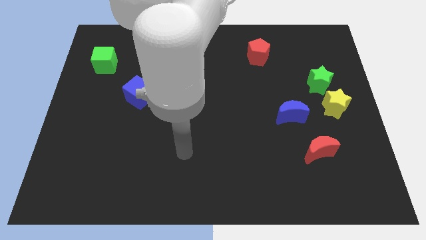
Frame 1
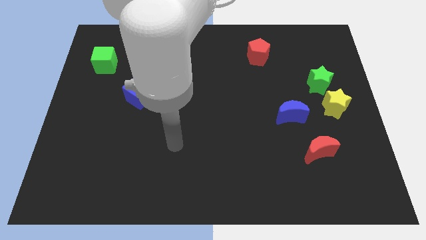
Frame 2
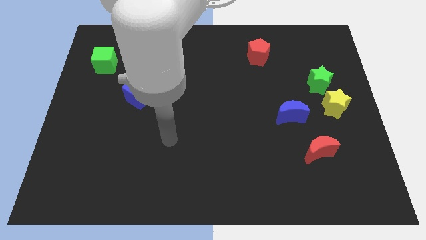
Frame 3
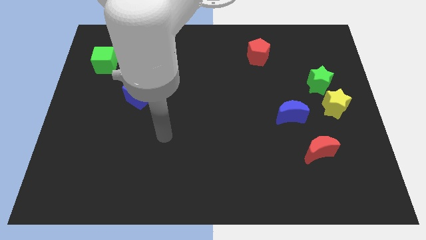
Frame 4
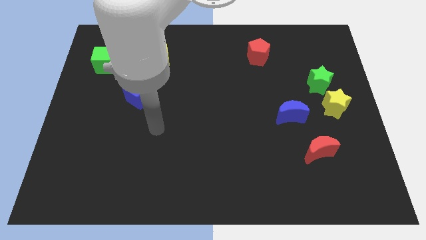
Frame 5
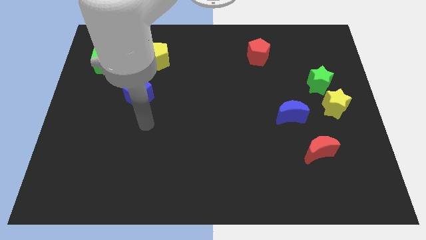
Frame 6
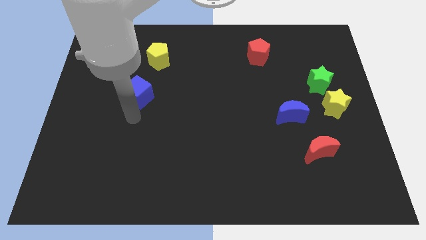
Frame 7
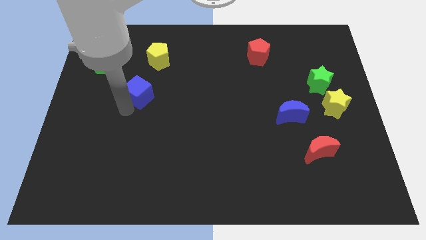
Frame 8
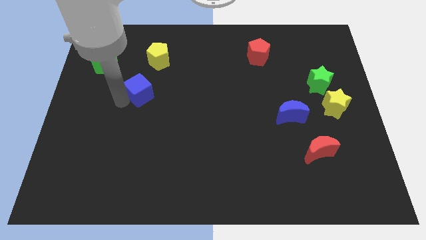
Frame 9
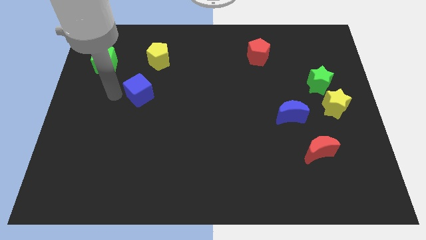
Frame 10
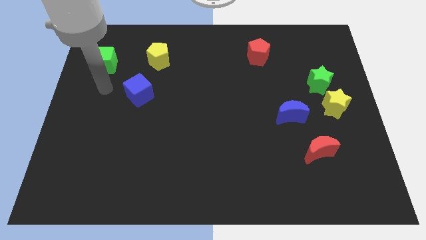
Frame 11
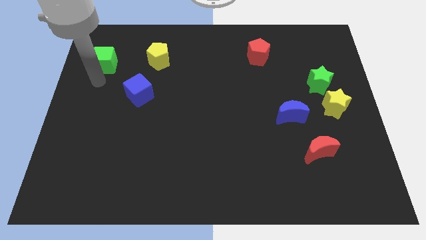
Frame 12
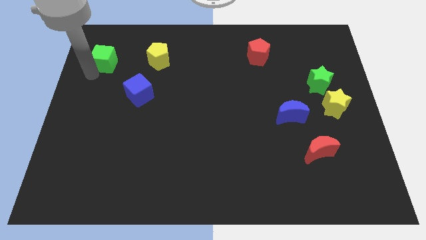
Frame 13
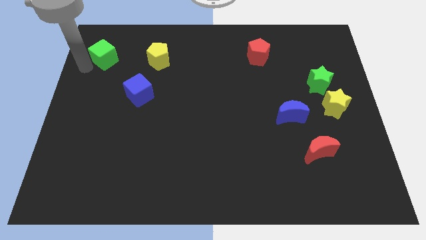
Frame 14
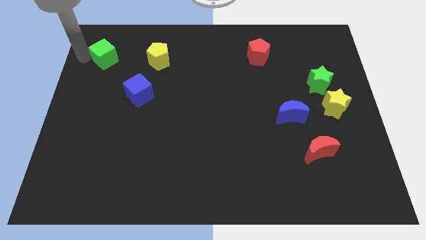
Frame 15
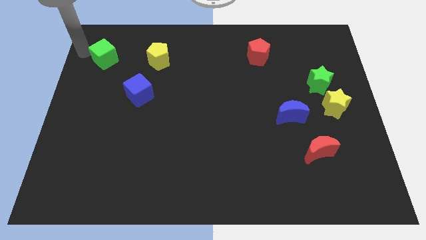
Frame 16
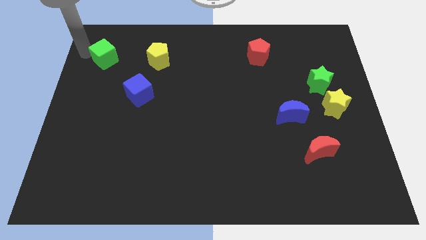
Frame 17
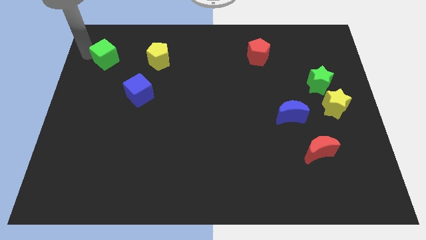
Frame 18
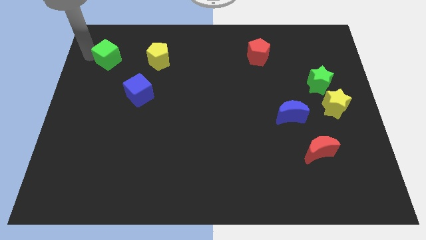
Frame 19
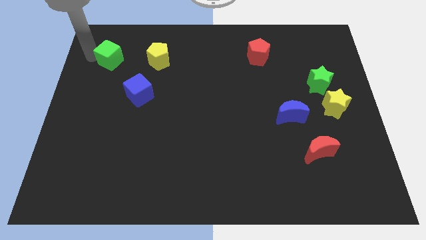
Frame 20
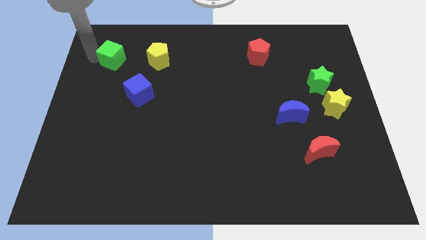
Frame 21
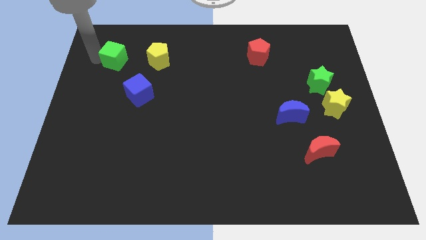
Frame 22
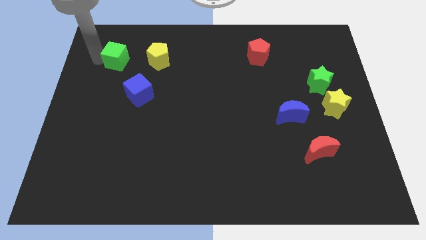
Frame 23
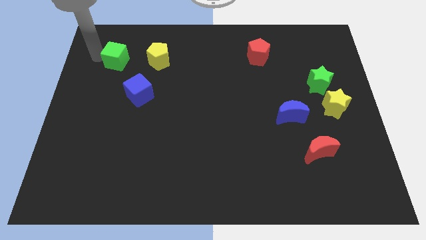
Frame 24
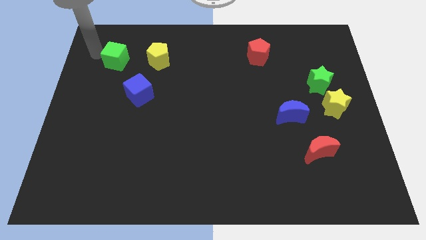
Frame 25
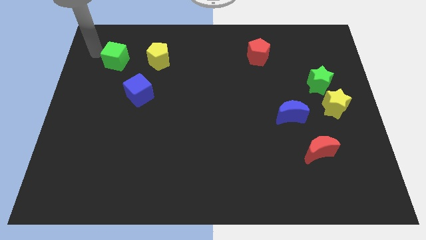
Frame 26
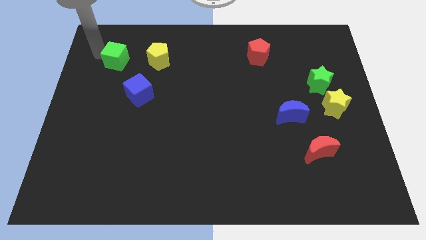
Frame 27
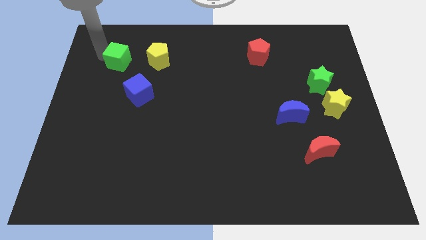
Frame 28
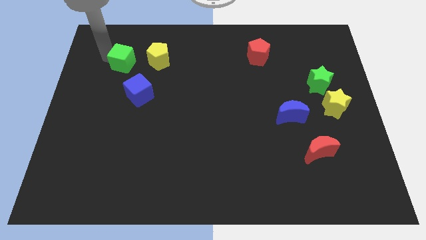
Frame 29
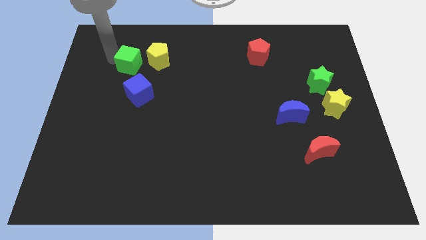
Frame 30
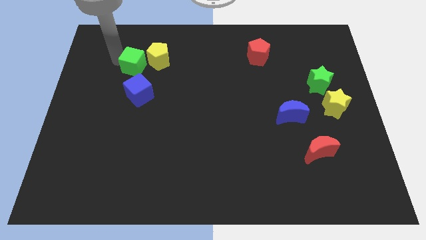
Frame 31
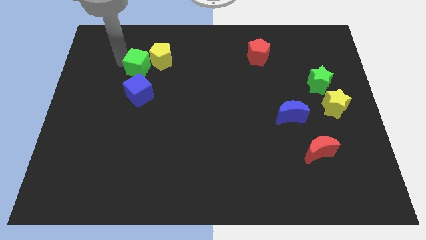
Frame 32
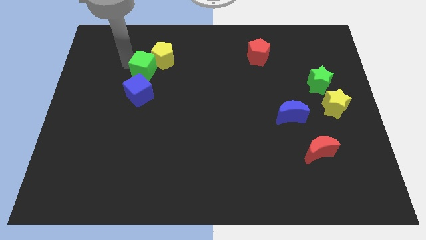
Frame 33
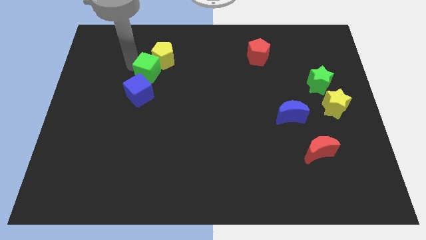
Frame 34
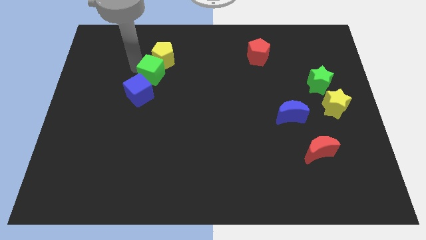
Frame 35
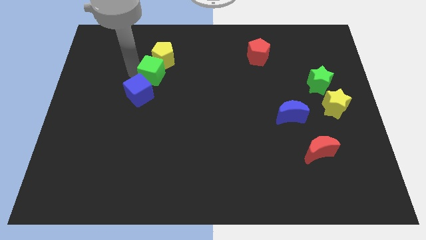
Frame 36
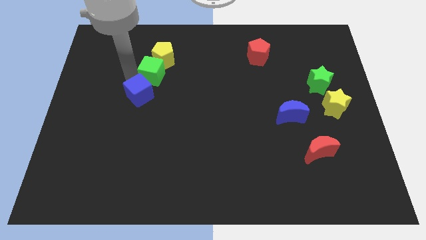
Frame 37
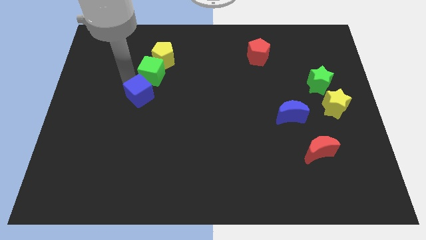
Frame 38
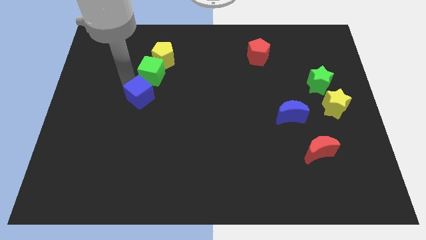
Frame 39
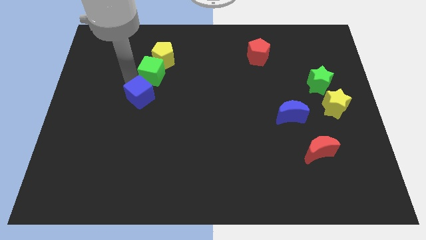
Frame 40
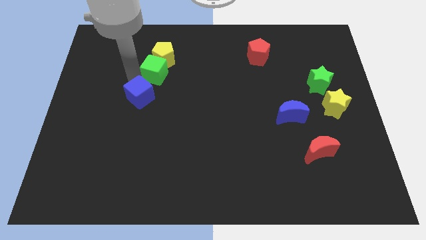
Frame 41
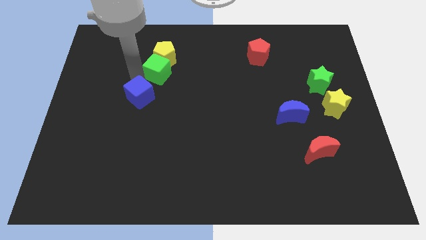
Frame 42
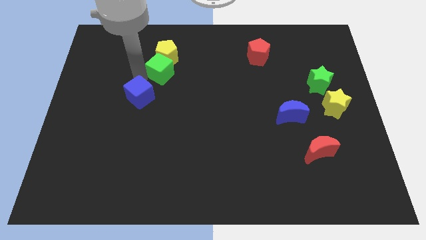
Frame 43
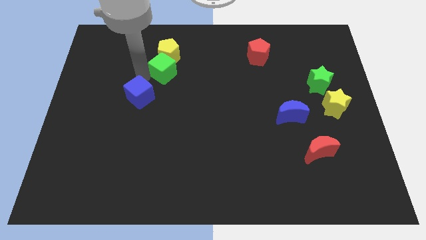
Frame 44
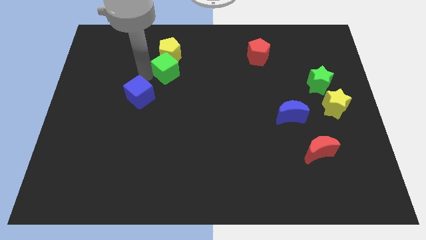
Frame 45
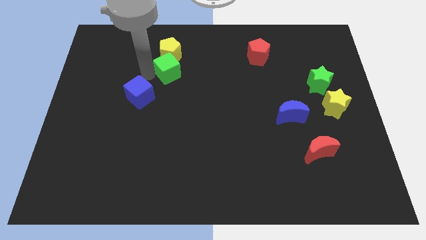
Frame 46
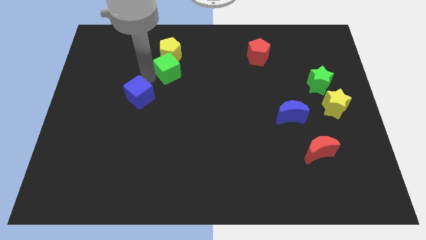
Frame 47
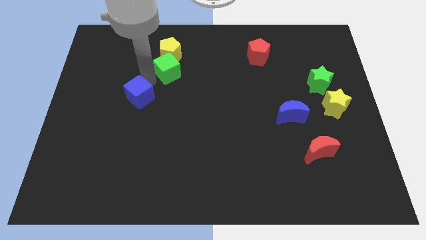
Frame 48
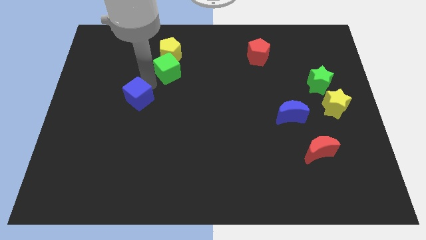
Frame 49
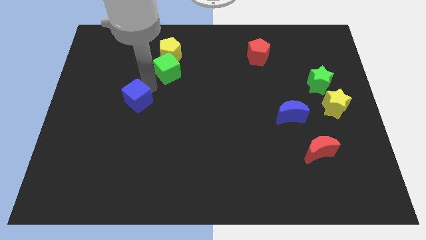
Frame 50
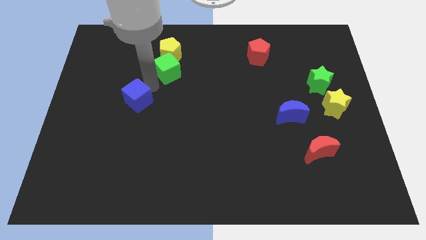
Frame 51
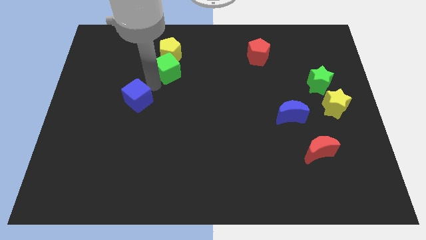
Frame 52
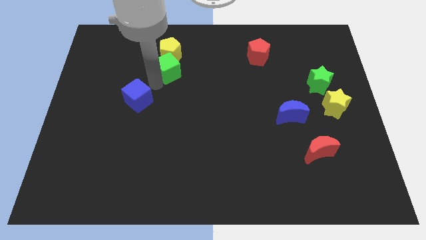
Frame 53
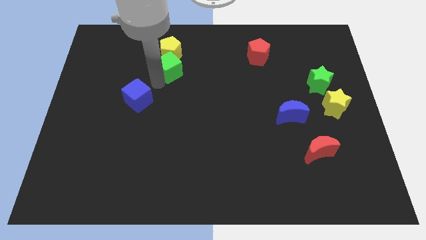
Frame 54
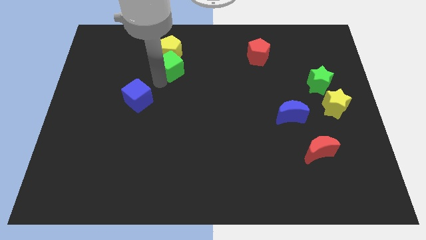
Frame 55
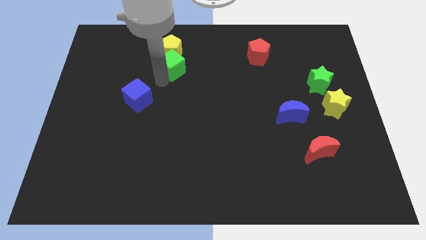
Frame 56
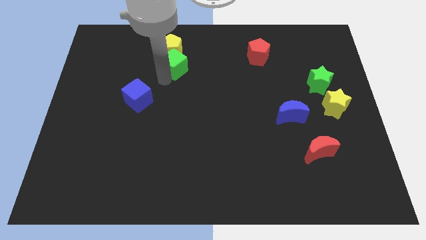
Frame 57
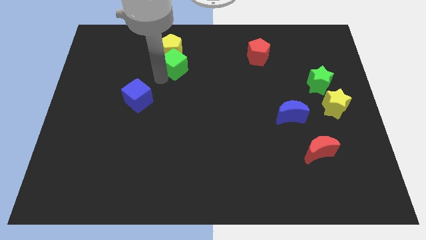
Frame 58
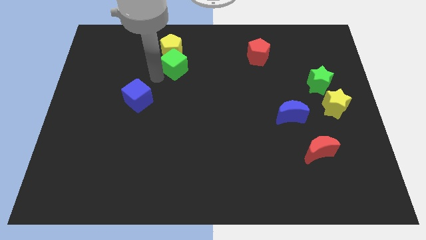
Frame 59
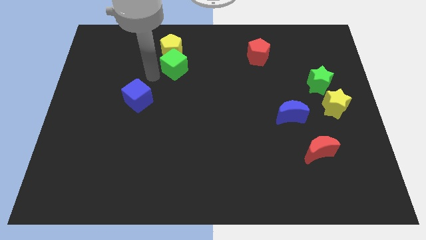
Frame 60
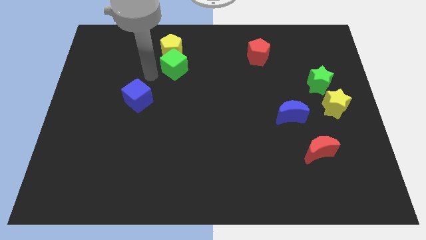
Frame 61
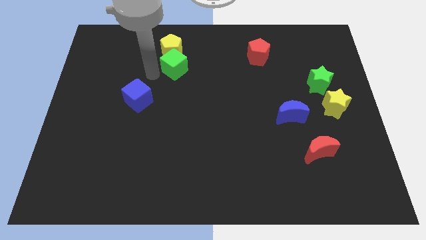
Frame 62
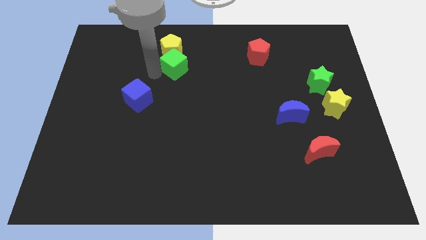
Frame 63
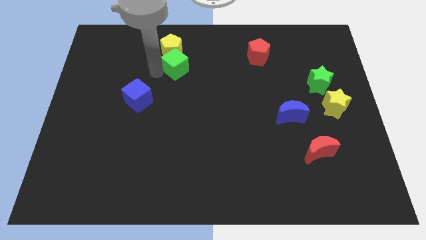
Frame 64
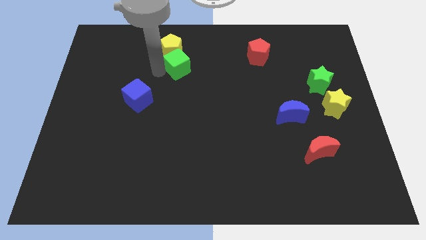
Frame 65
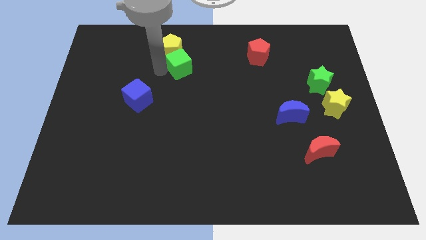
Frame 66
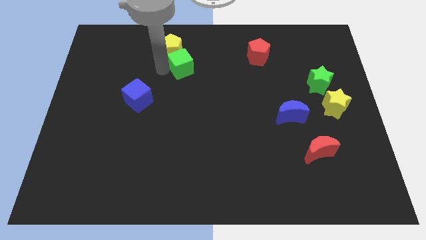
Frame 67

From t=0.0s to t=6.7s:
move the green cube to the right

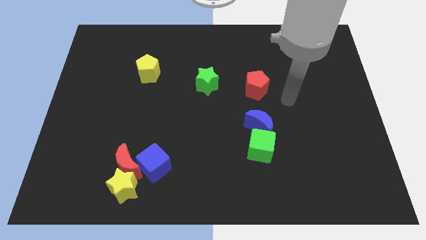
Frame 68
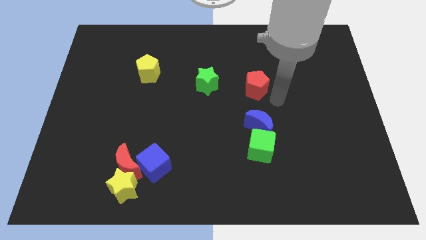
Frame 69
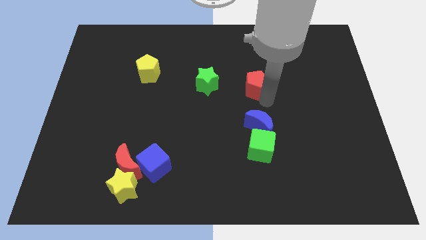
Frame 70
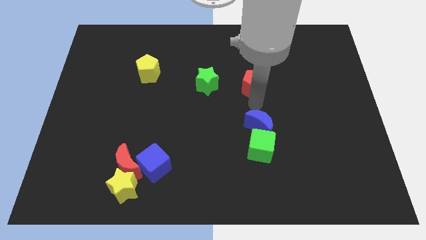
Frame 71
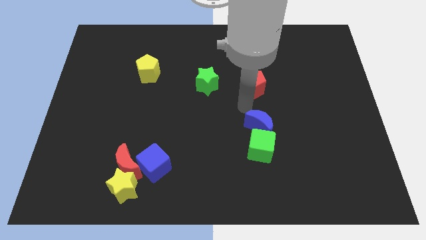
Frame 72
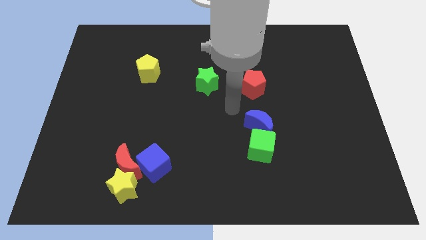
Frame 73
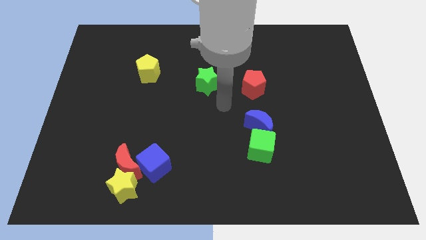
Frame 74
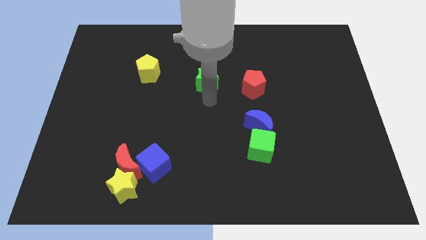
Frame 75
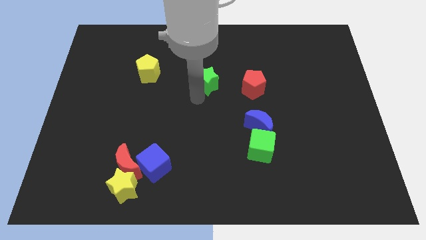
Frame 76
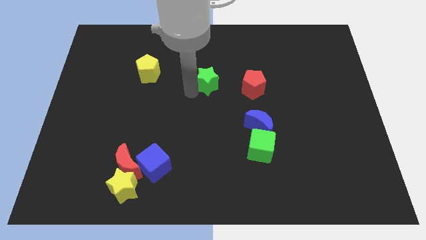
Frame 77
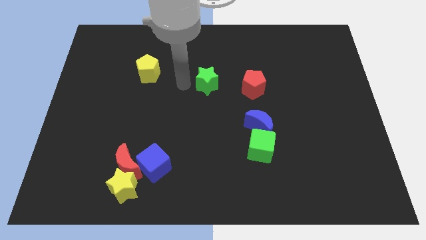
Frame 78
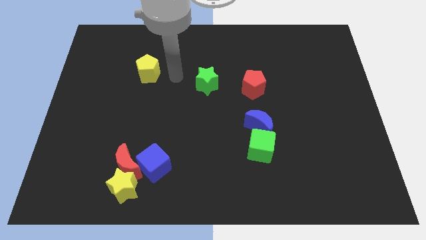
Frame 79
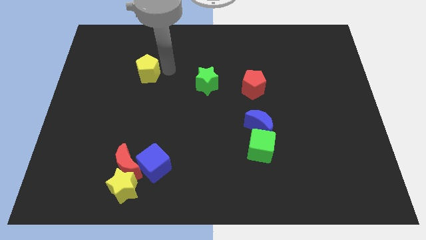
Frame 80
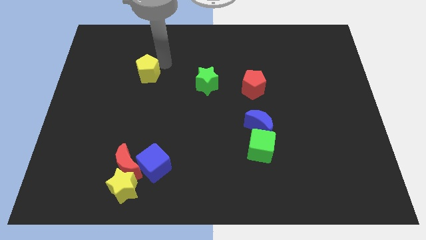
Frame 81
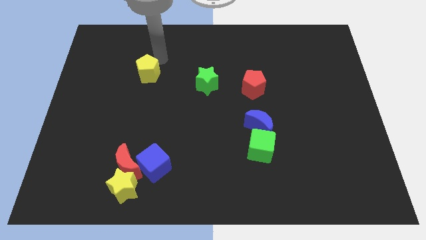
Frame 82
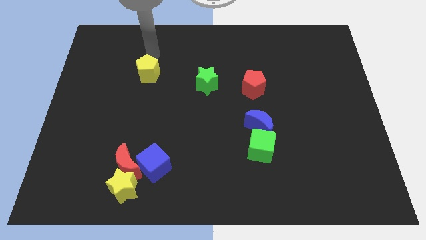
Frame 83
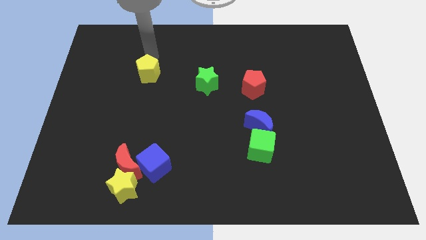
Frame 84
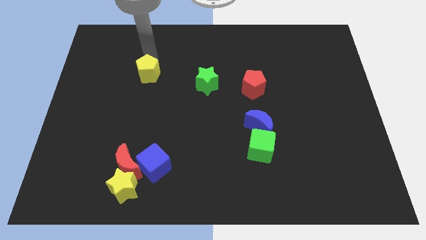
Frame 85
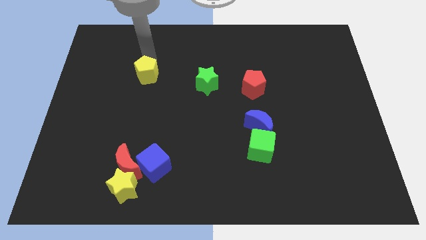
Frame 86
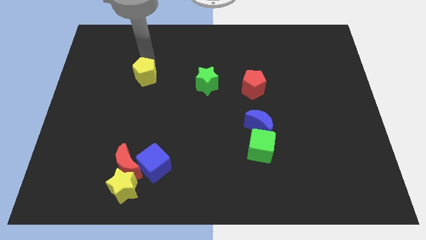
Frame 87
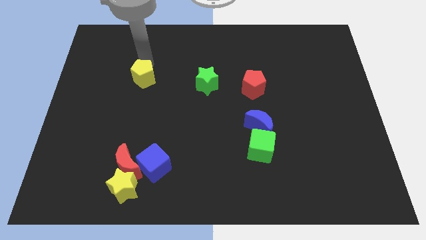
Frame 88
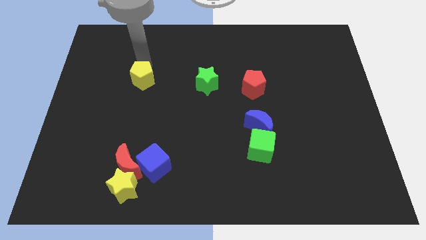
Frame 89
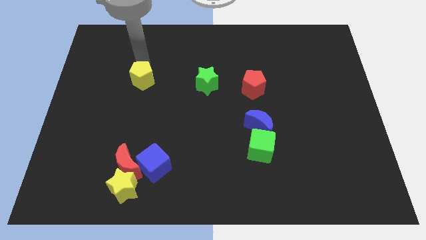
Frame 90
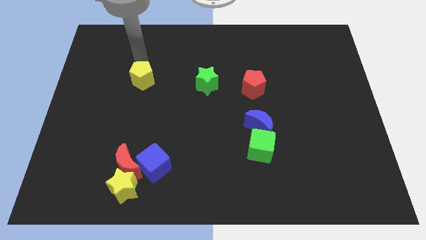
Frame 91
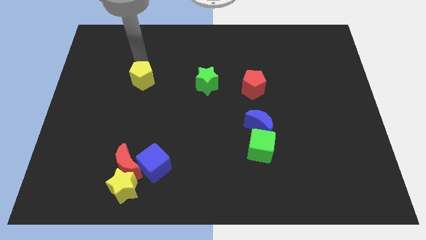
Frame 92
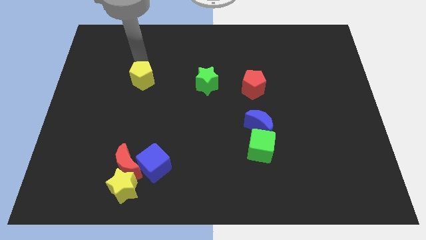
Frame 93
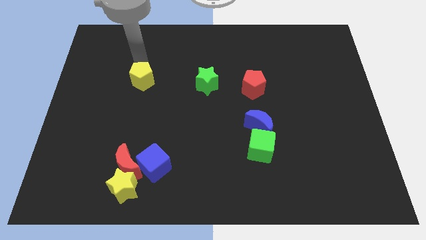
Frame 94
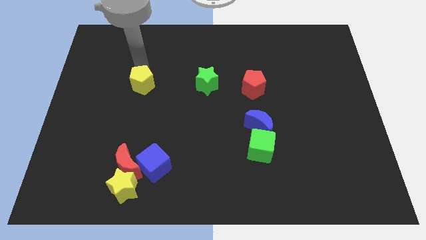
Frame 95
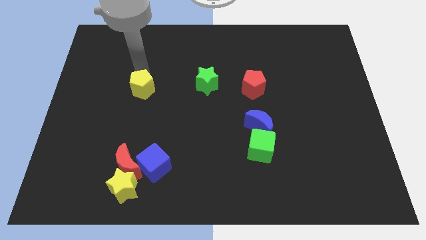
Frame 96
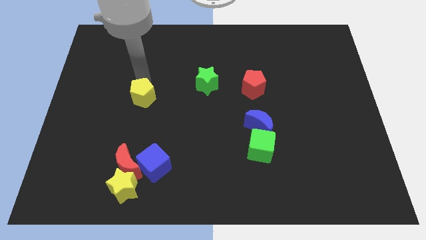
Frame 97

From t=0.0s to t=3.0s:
slightly push the yellow pentagon down
